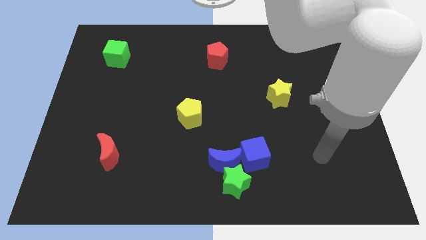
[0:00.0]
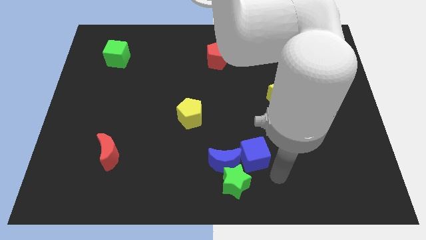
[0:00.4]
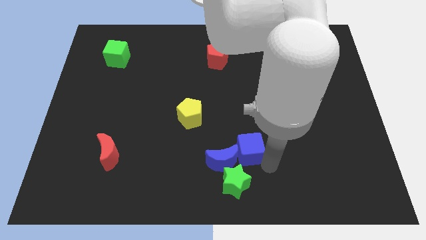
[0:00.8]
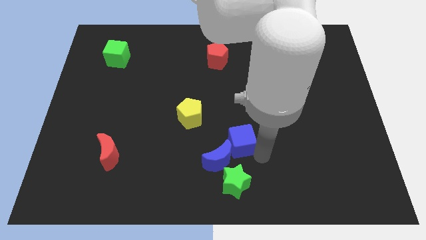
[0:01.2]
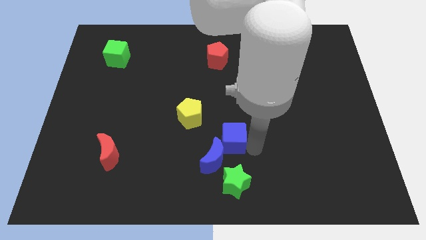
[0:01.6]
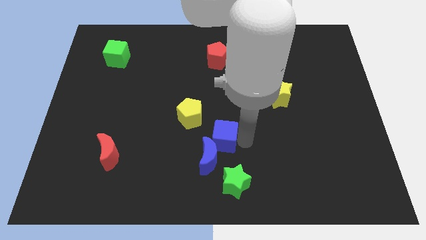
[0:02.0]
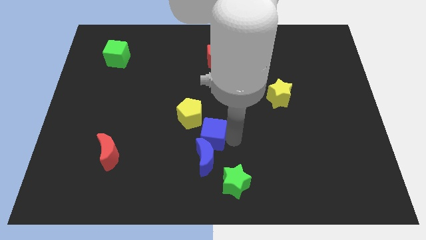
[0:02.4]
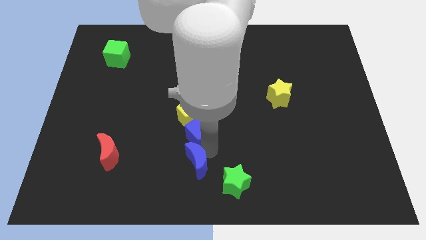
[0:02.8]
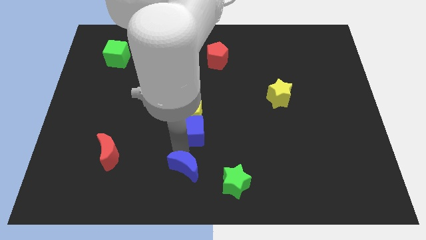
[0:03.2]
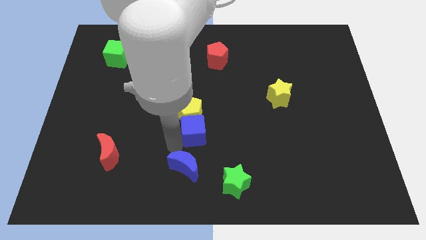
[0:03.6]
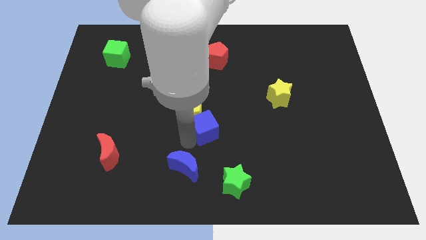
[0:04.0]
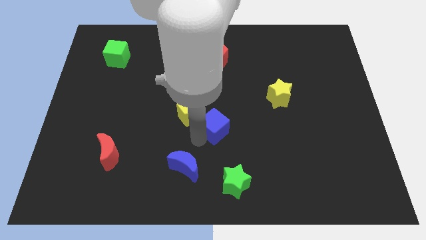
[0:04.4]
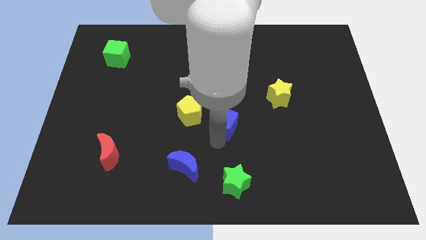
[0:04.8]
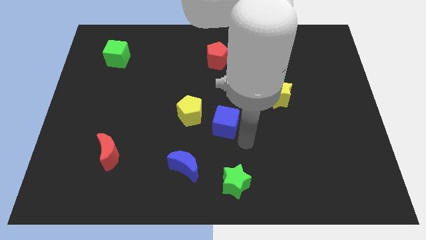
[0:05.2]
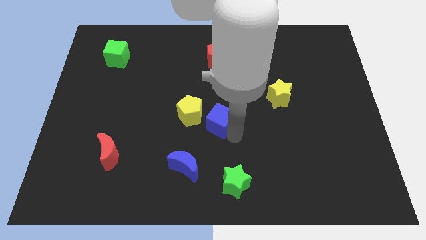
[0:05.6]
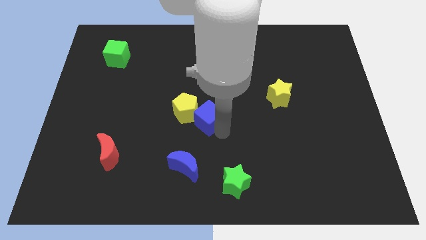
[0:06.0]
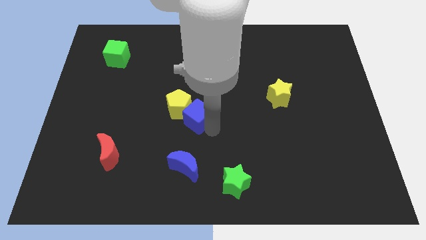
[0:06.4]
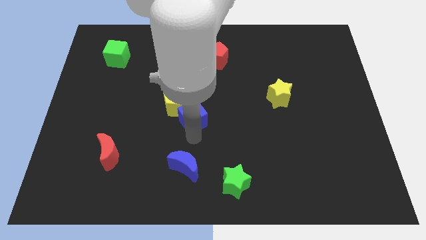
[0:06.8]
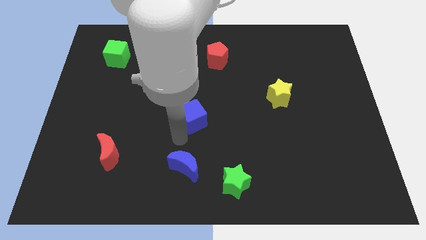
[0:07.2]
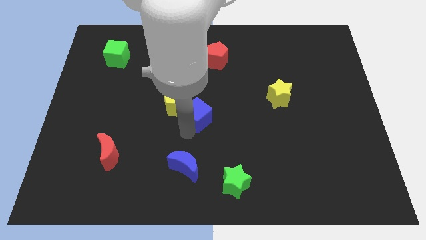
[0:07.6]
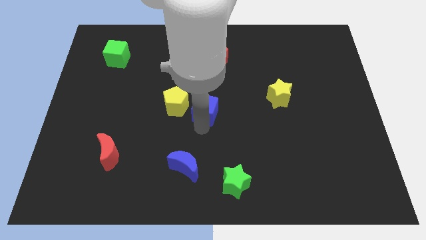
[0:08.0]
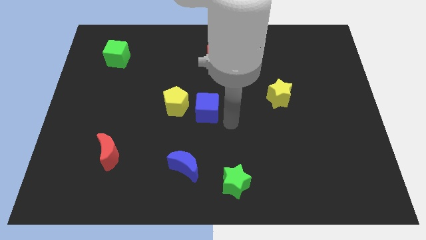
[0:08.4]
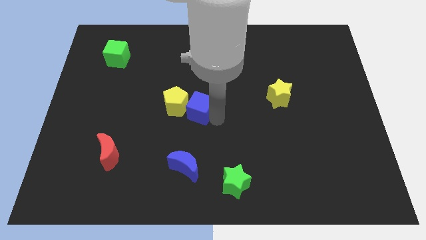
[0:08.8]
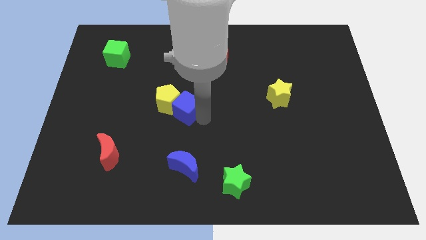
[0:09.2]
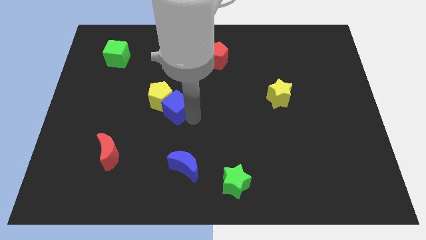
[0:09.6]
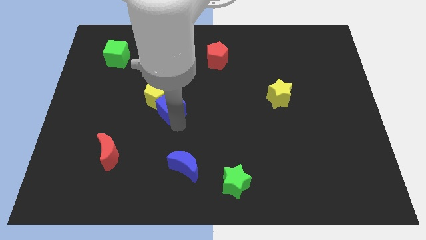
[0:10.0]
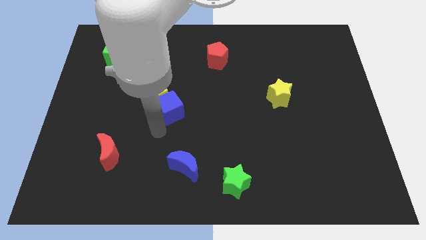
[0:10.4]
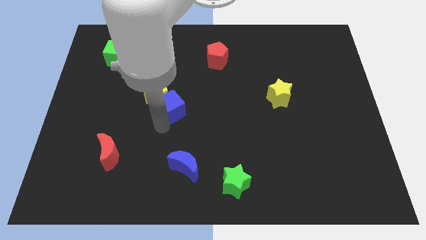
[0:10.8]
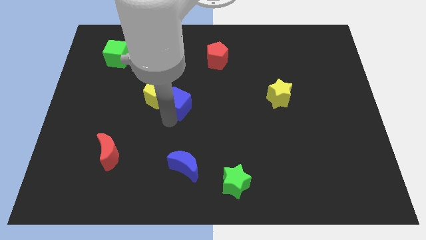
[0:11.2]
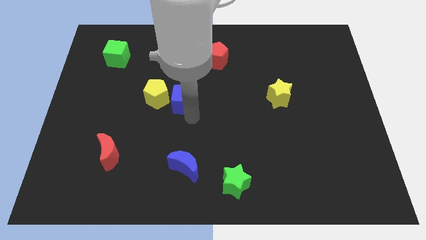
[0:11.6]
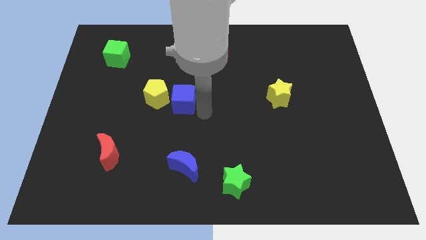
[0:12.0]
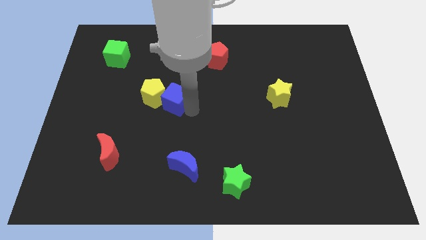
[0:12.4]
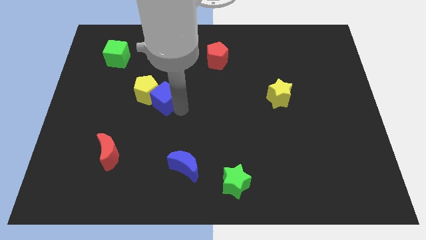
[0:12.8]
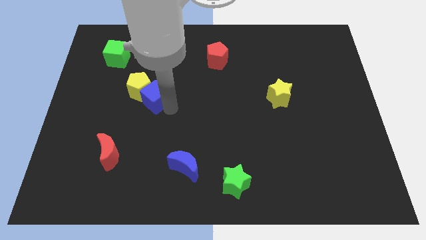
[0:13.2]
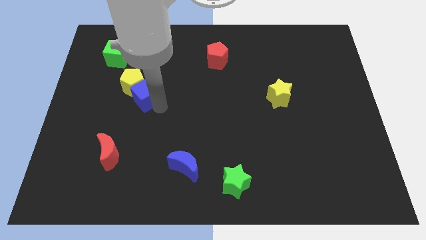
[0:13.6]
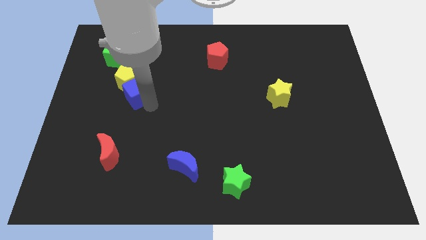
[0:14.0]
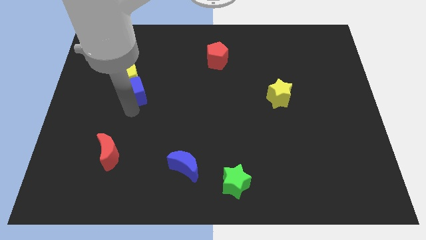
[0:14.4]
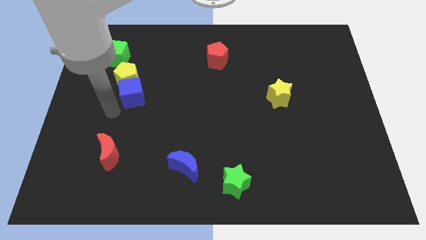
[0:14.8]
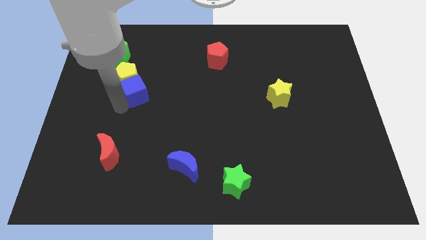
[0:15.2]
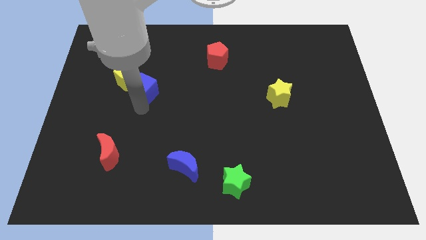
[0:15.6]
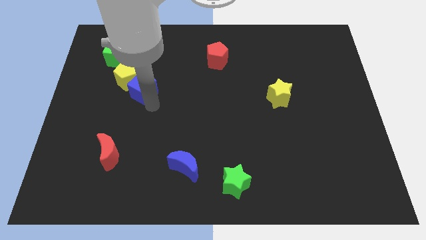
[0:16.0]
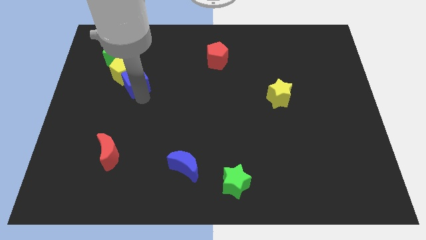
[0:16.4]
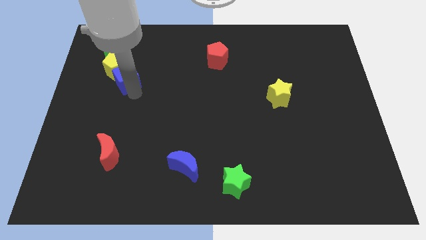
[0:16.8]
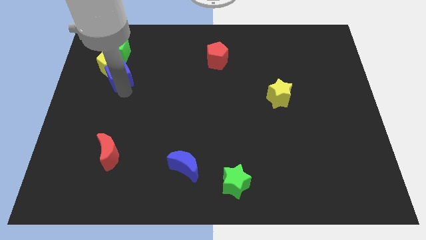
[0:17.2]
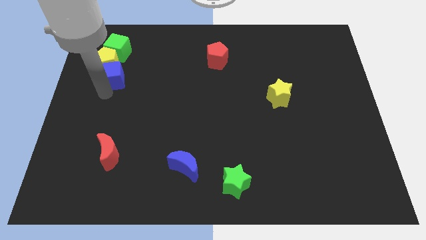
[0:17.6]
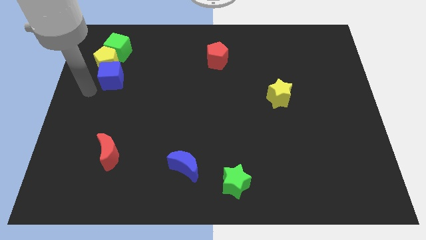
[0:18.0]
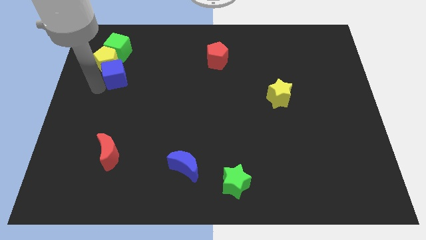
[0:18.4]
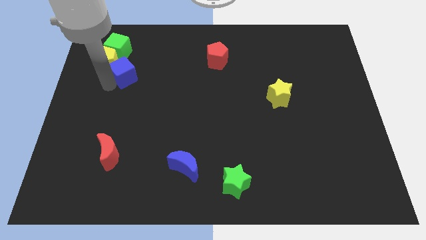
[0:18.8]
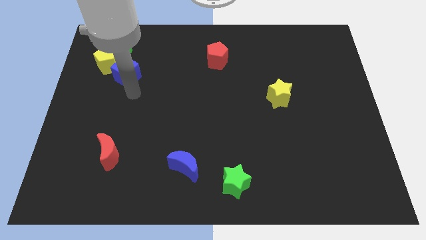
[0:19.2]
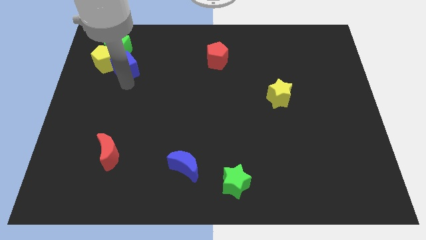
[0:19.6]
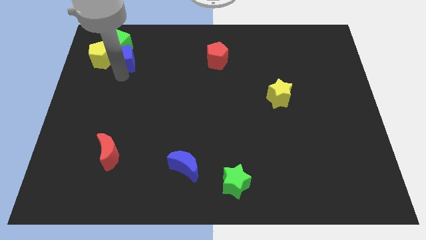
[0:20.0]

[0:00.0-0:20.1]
push the blue cube to the green cube

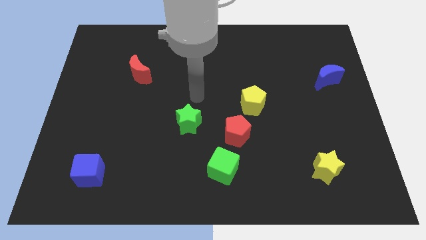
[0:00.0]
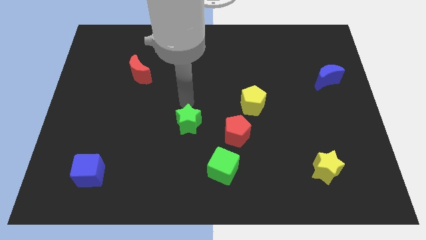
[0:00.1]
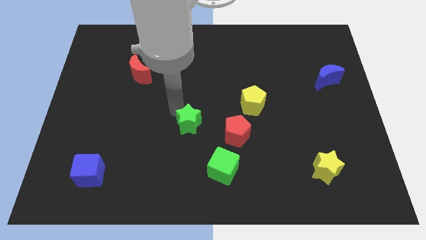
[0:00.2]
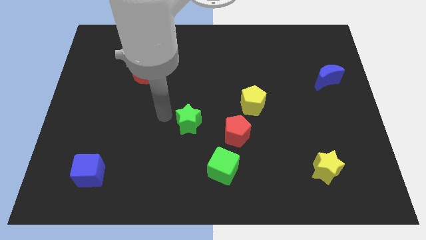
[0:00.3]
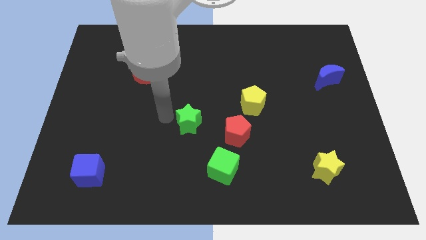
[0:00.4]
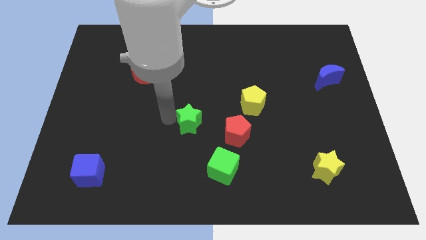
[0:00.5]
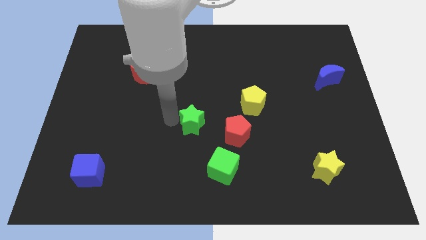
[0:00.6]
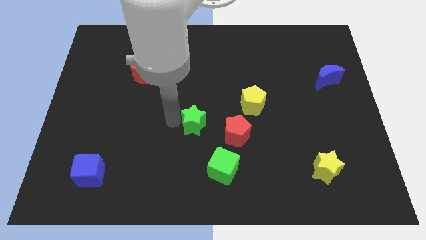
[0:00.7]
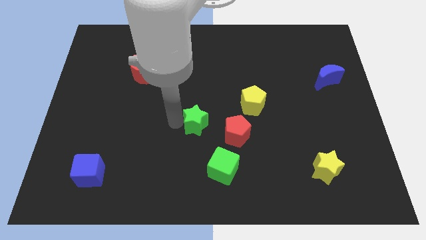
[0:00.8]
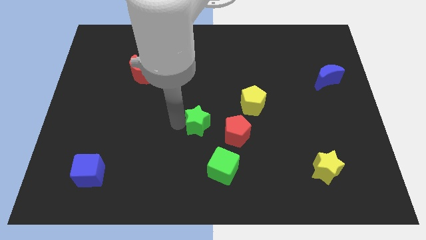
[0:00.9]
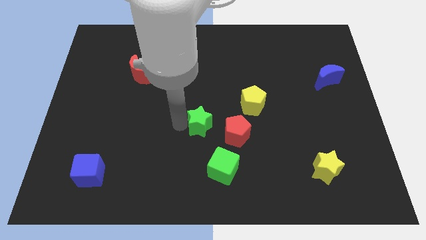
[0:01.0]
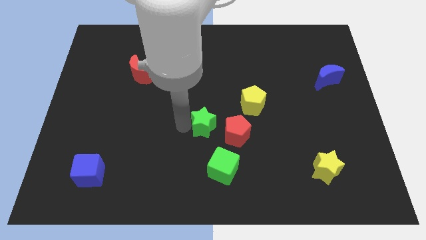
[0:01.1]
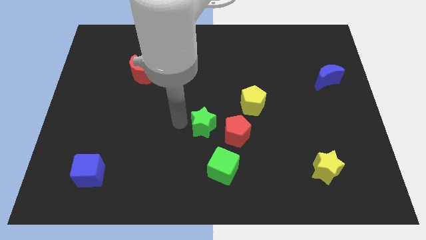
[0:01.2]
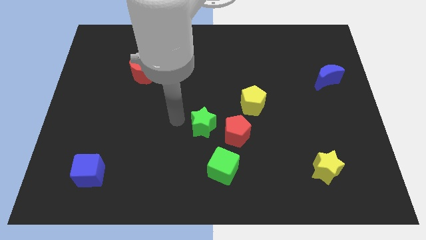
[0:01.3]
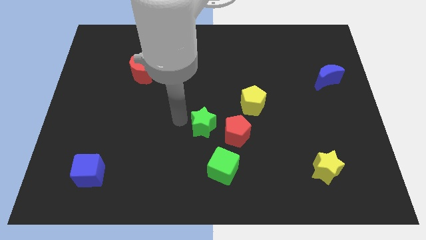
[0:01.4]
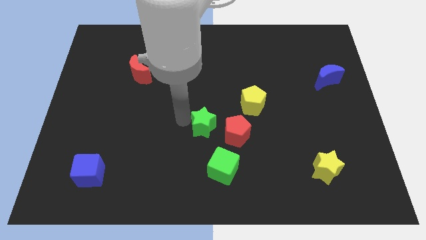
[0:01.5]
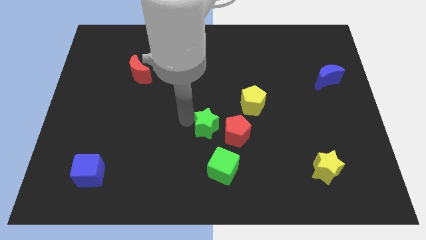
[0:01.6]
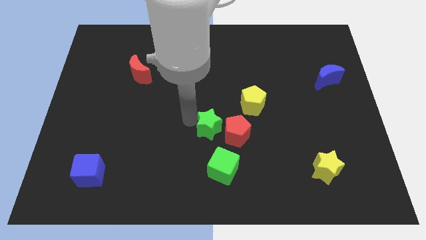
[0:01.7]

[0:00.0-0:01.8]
put the green star close to the red pentagon

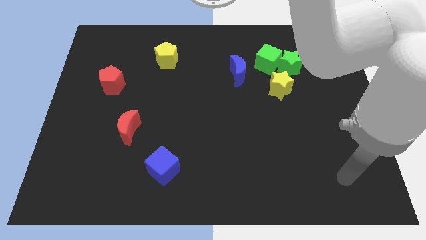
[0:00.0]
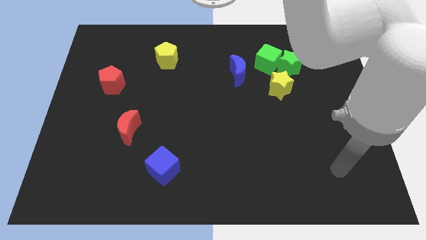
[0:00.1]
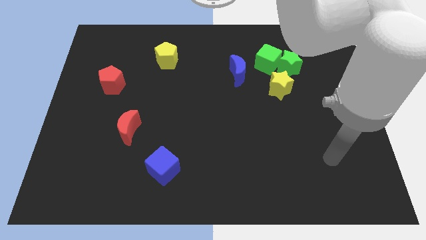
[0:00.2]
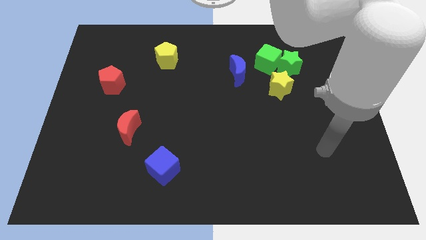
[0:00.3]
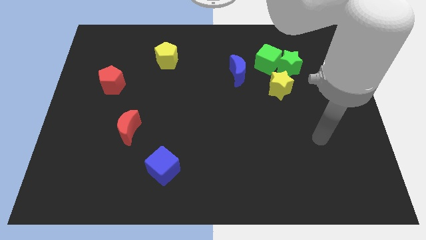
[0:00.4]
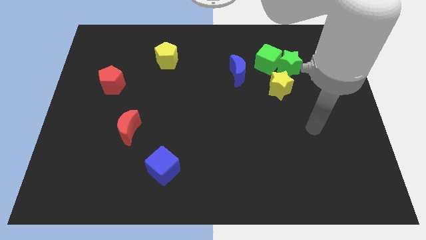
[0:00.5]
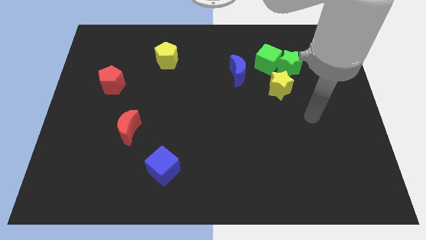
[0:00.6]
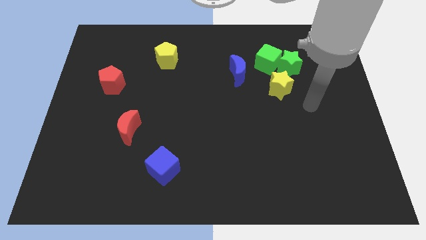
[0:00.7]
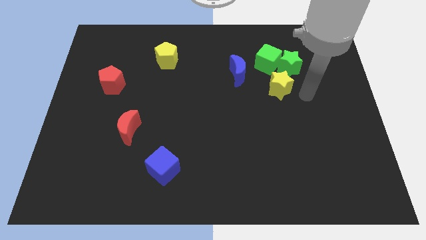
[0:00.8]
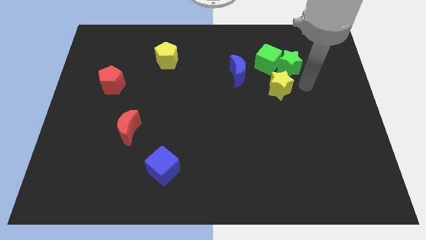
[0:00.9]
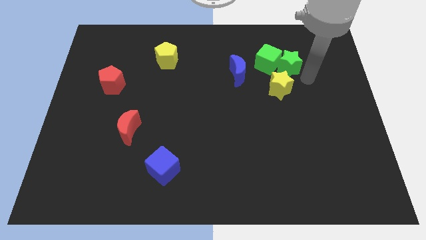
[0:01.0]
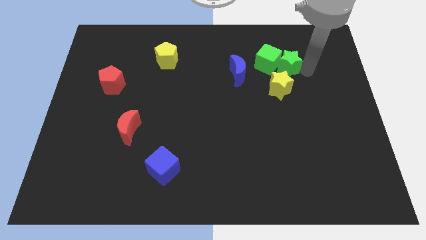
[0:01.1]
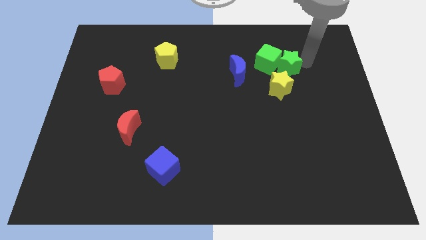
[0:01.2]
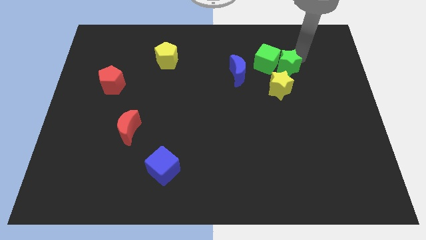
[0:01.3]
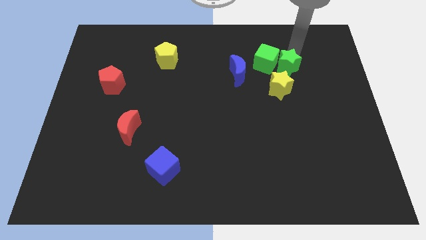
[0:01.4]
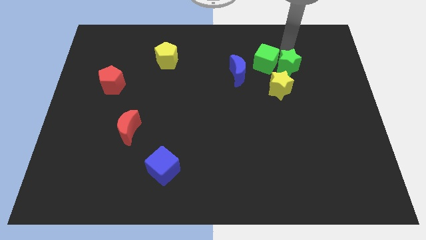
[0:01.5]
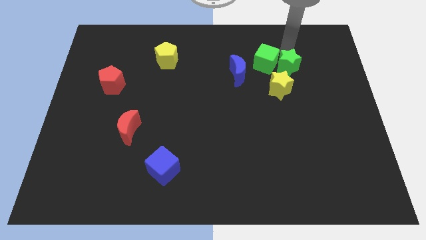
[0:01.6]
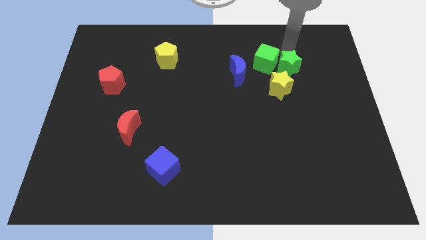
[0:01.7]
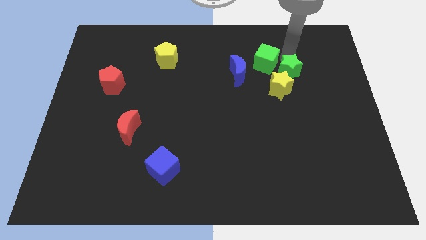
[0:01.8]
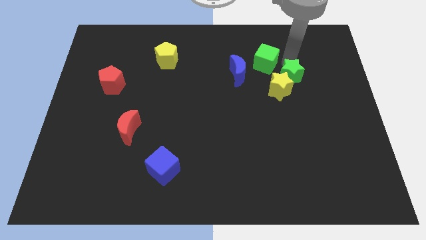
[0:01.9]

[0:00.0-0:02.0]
move the green star next to the yellow star
